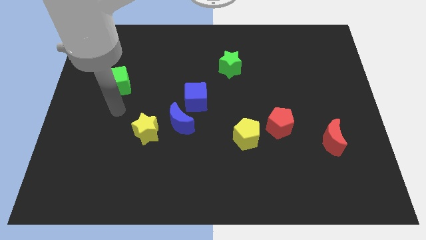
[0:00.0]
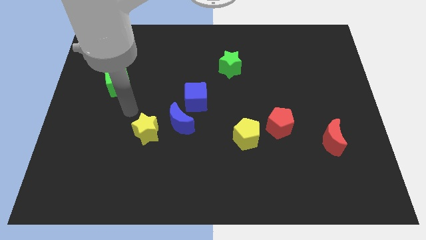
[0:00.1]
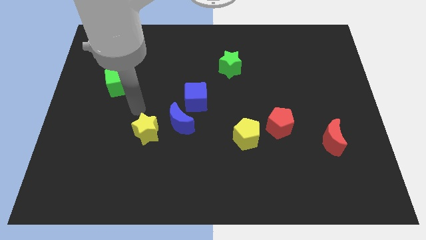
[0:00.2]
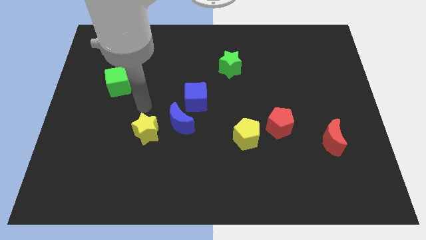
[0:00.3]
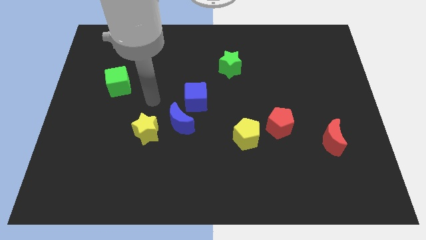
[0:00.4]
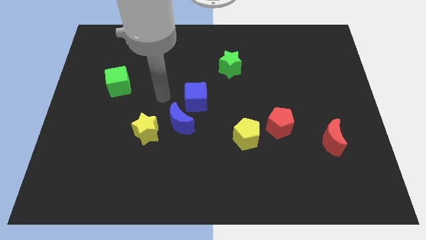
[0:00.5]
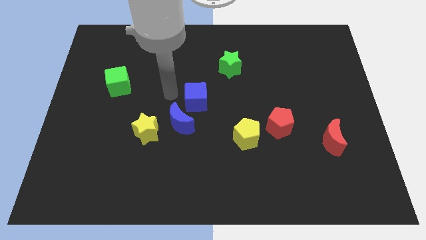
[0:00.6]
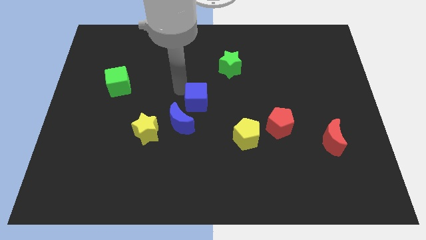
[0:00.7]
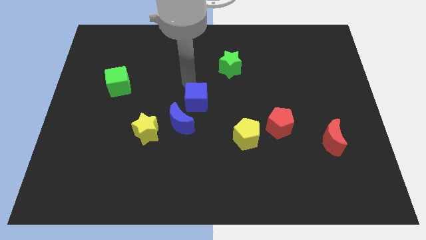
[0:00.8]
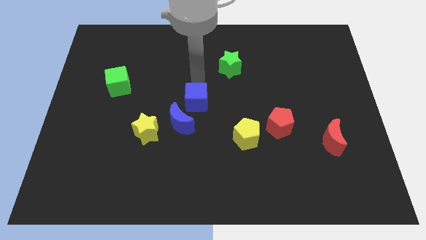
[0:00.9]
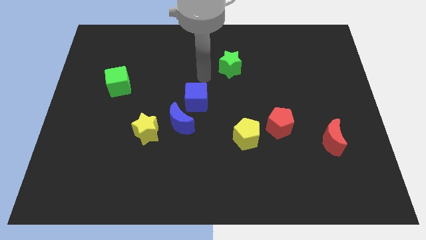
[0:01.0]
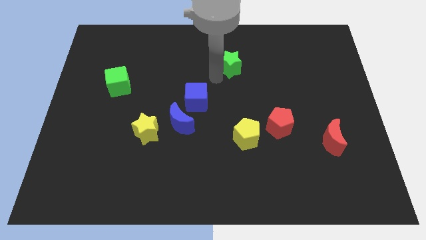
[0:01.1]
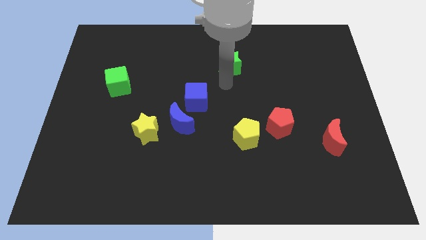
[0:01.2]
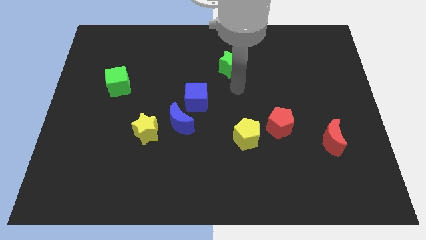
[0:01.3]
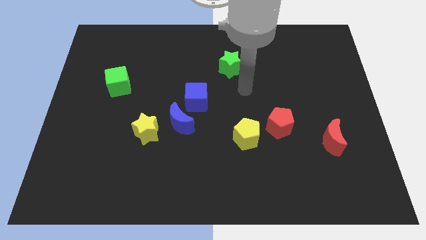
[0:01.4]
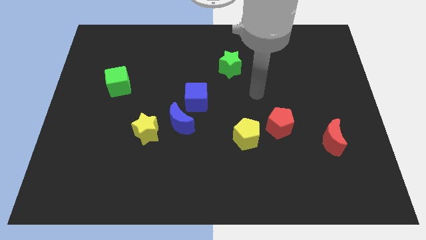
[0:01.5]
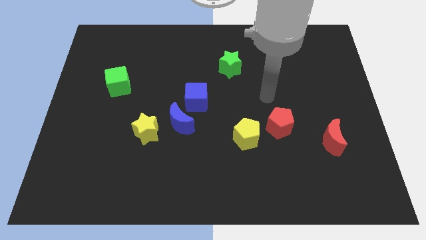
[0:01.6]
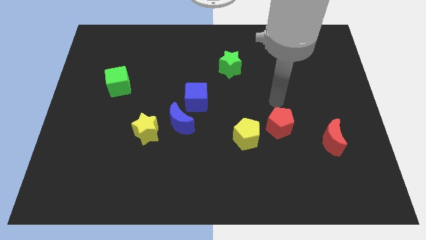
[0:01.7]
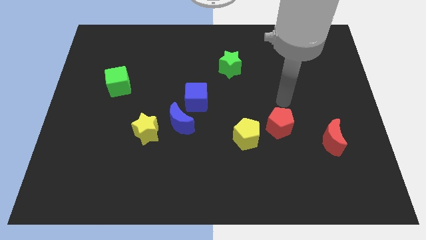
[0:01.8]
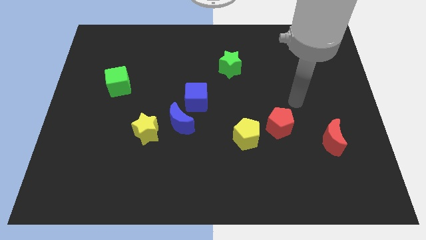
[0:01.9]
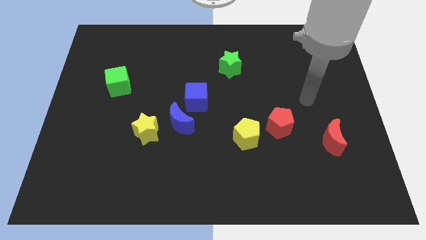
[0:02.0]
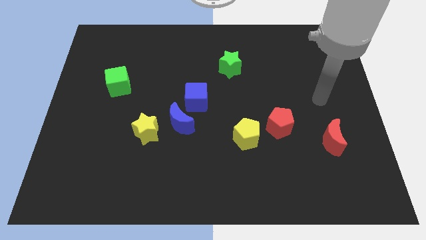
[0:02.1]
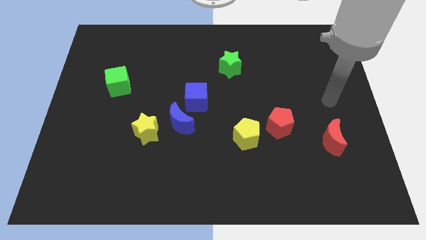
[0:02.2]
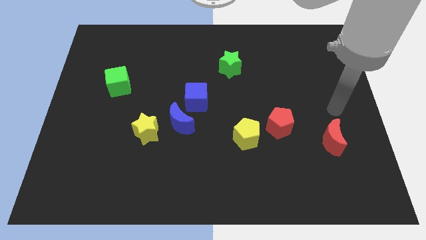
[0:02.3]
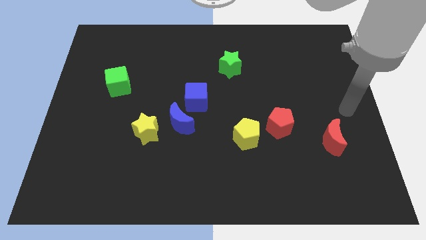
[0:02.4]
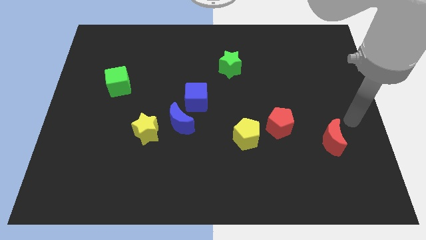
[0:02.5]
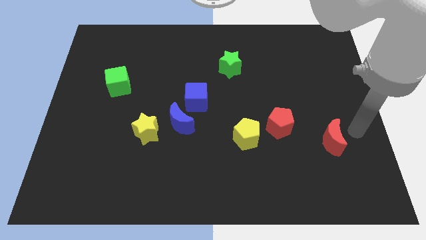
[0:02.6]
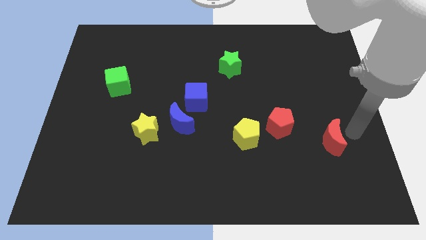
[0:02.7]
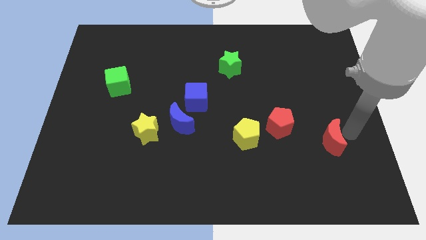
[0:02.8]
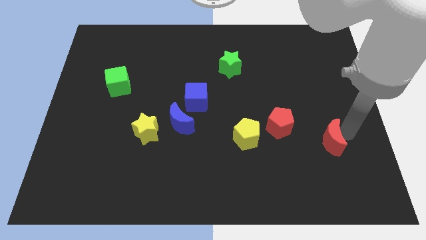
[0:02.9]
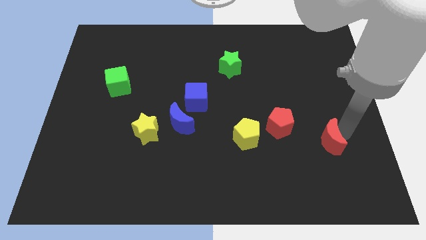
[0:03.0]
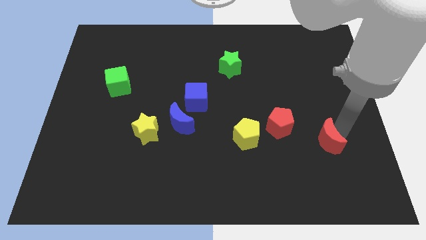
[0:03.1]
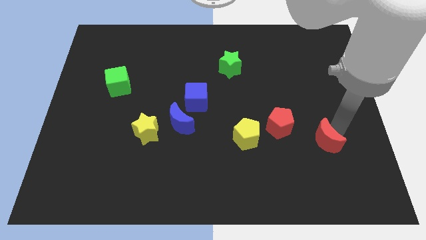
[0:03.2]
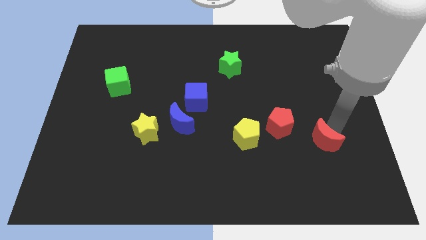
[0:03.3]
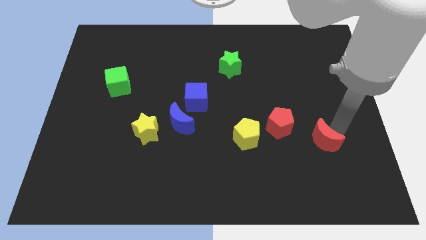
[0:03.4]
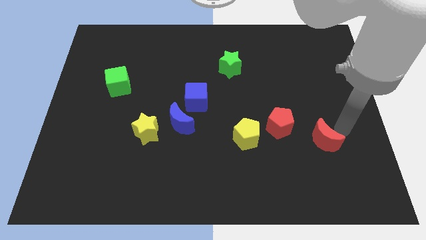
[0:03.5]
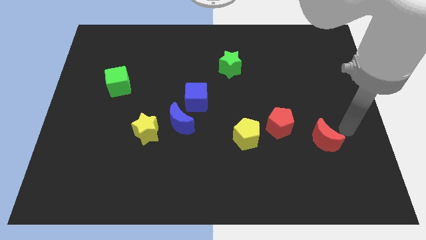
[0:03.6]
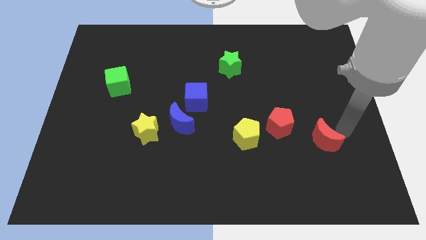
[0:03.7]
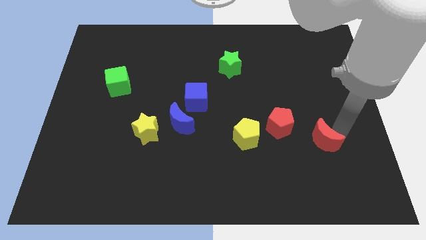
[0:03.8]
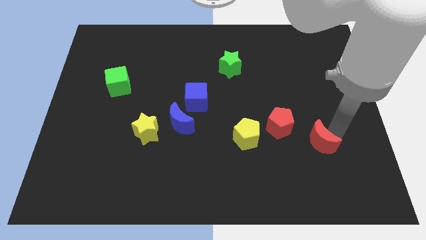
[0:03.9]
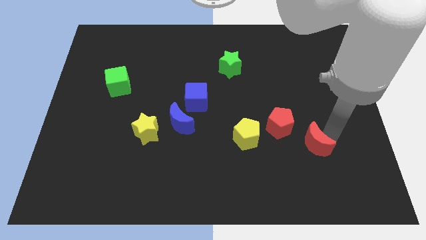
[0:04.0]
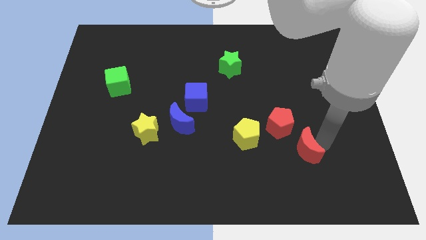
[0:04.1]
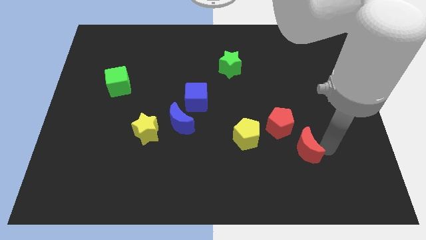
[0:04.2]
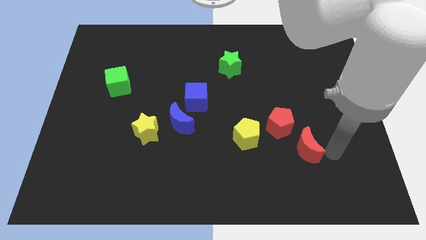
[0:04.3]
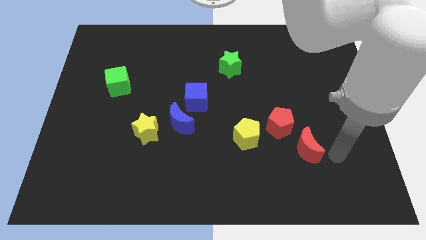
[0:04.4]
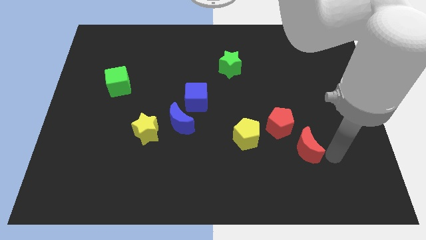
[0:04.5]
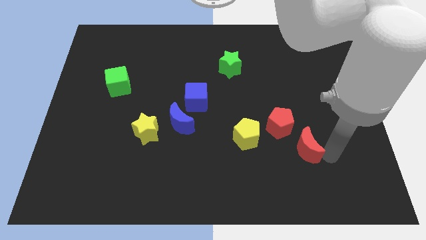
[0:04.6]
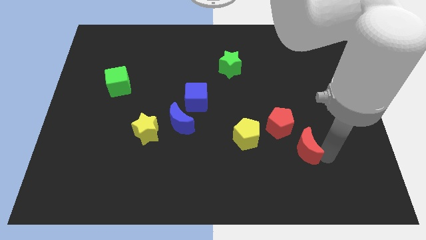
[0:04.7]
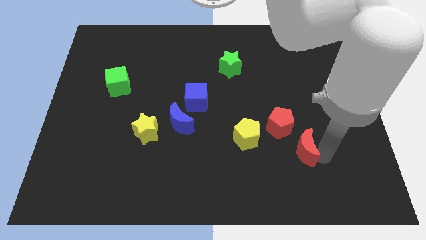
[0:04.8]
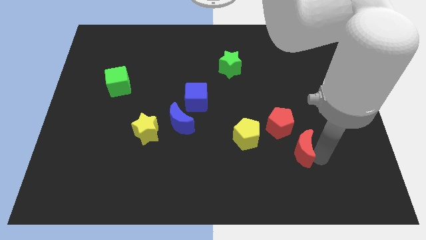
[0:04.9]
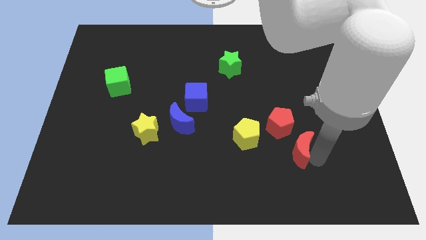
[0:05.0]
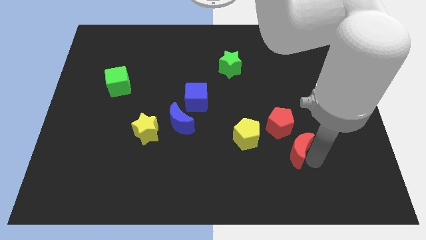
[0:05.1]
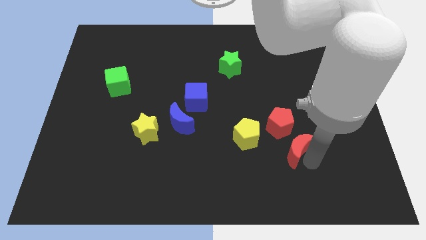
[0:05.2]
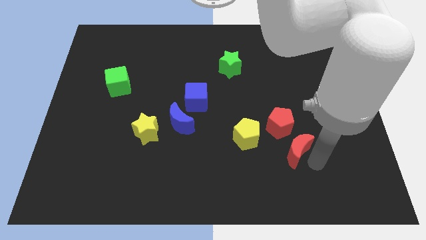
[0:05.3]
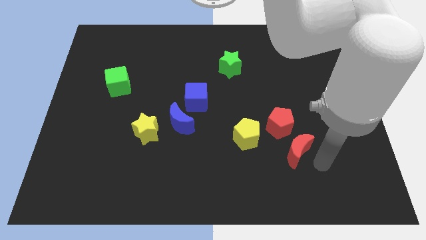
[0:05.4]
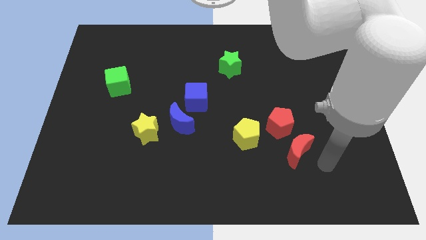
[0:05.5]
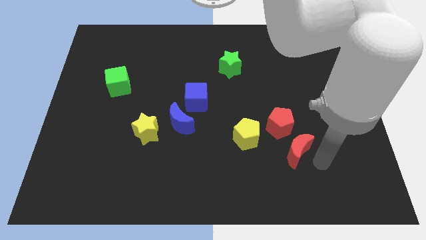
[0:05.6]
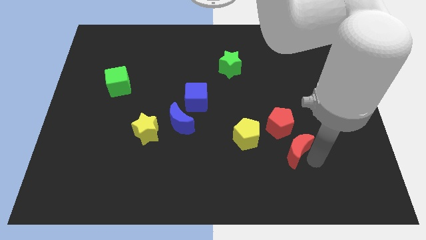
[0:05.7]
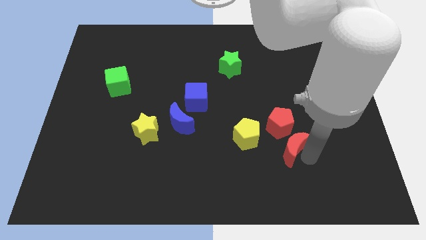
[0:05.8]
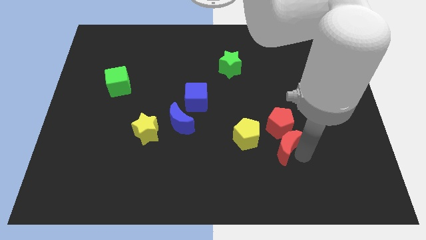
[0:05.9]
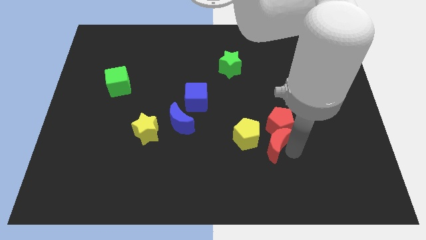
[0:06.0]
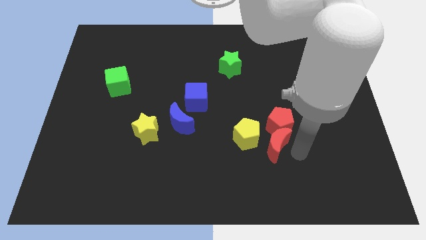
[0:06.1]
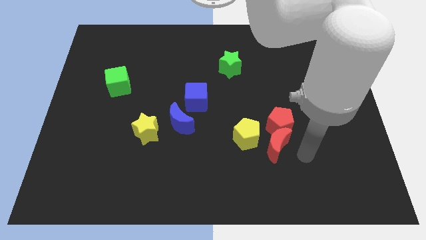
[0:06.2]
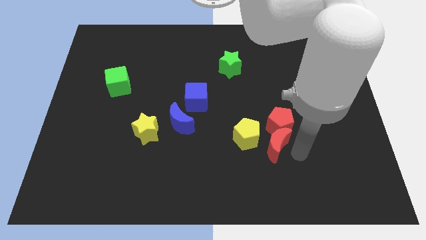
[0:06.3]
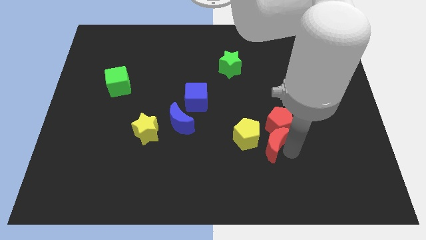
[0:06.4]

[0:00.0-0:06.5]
put the red moon to the yellow pentagon
